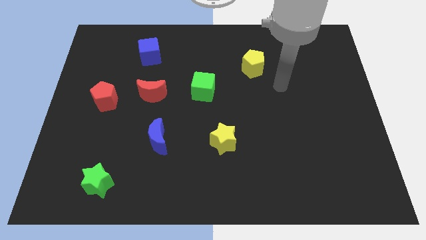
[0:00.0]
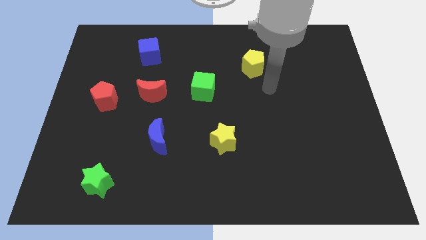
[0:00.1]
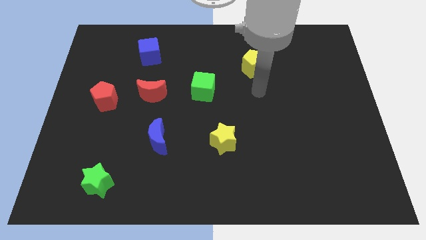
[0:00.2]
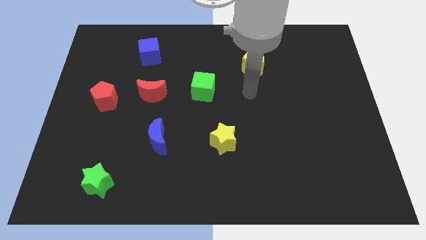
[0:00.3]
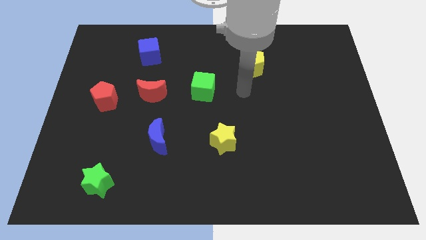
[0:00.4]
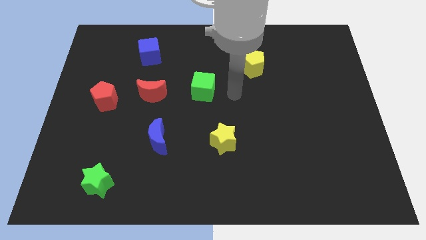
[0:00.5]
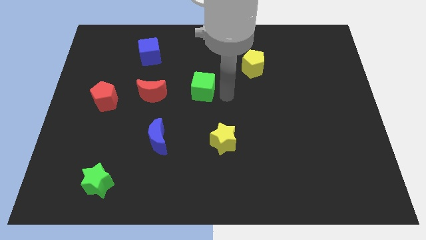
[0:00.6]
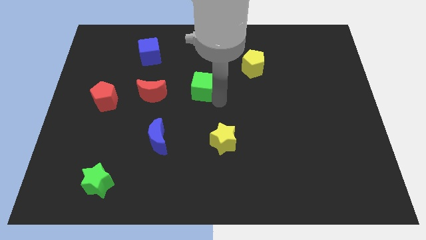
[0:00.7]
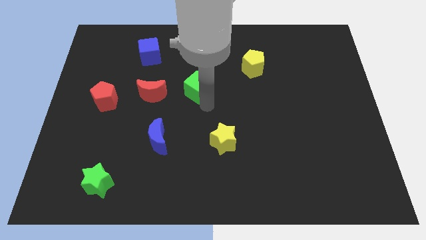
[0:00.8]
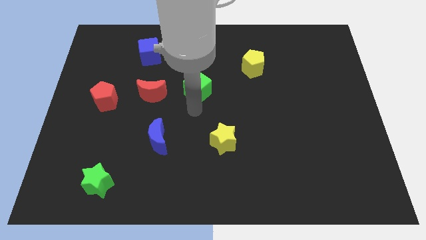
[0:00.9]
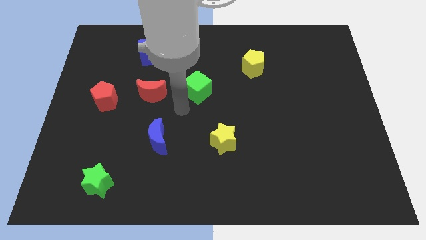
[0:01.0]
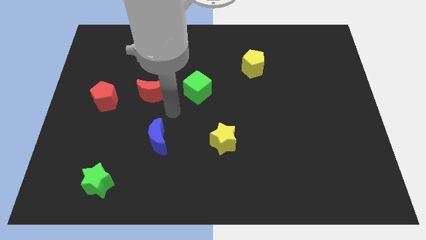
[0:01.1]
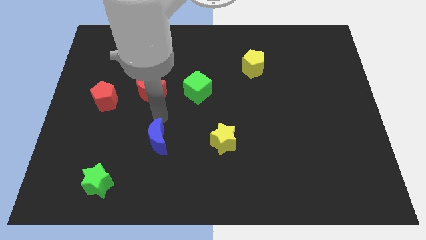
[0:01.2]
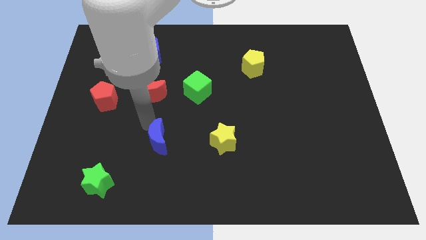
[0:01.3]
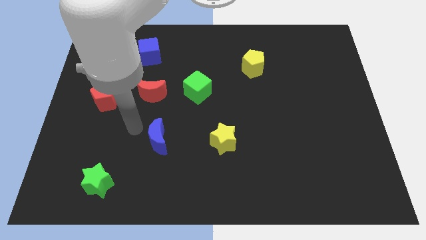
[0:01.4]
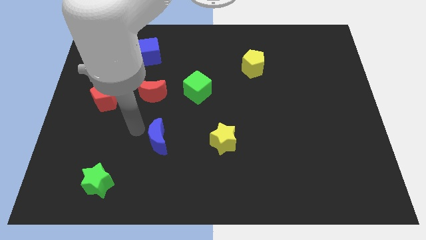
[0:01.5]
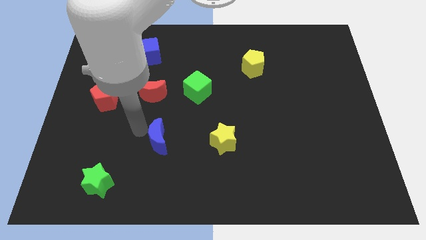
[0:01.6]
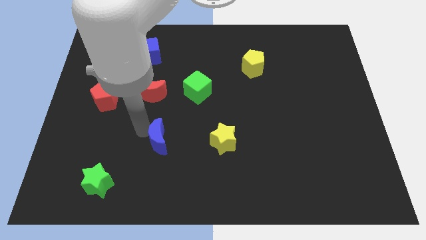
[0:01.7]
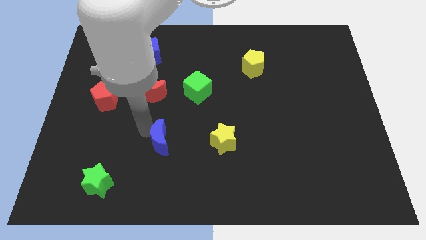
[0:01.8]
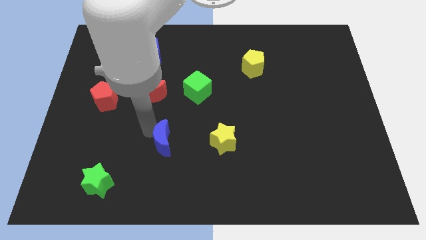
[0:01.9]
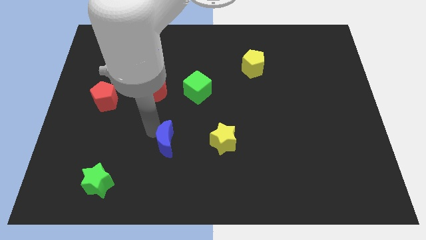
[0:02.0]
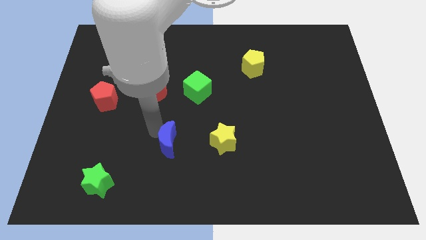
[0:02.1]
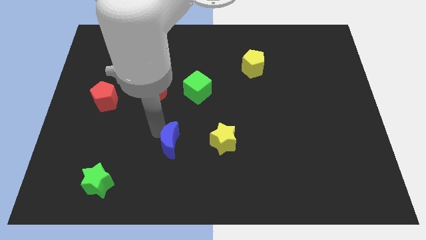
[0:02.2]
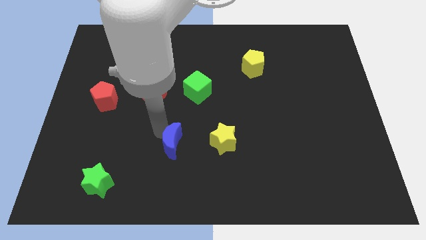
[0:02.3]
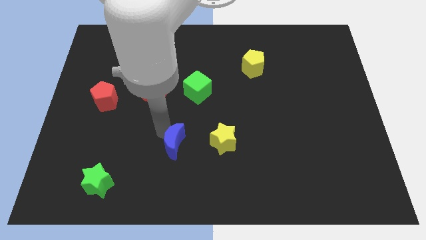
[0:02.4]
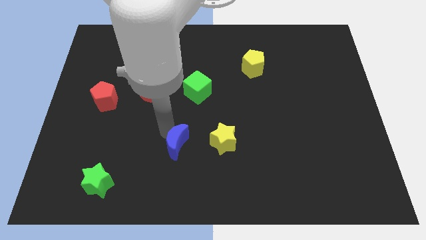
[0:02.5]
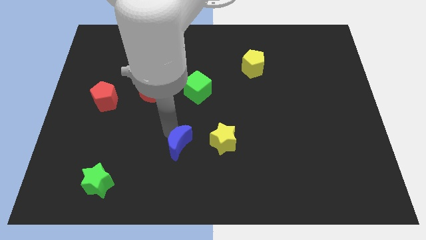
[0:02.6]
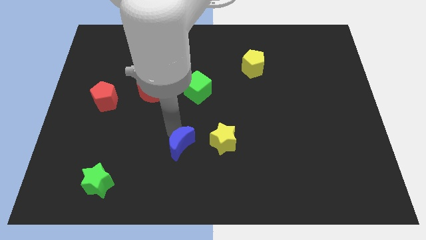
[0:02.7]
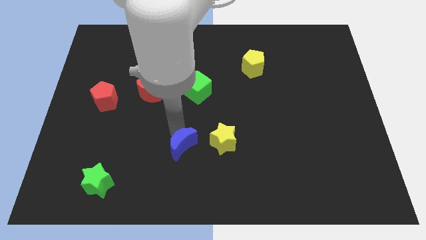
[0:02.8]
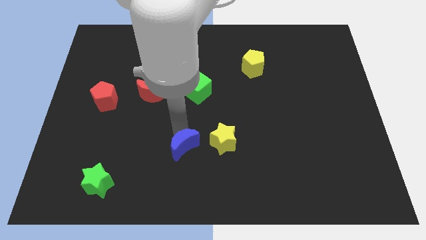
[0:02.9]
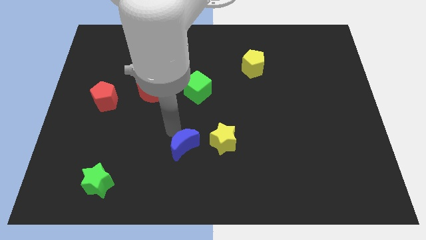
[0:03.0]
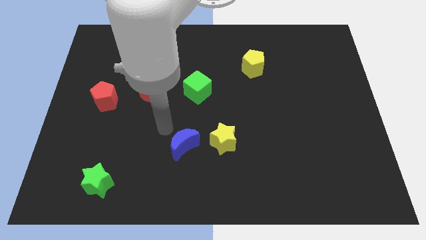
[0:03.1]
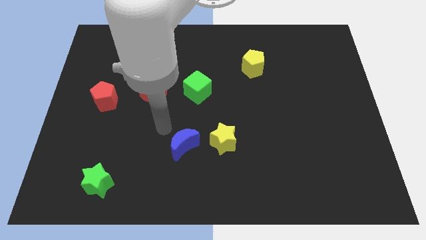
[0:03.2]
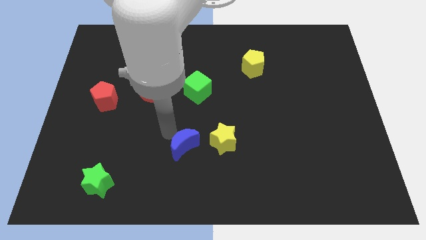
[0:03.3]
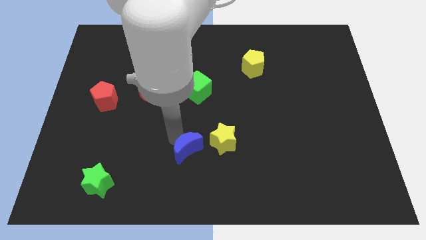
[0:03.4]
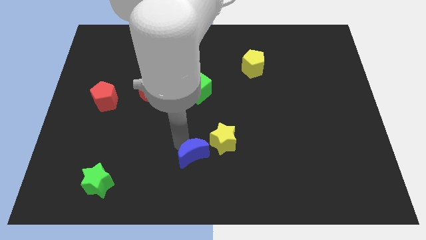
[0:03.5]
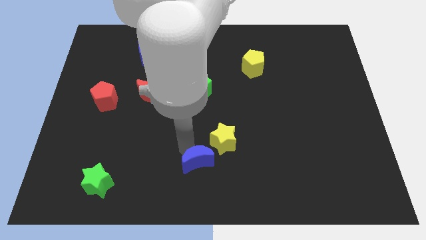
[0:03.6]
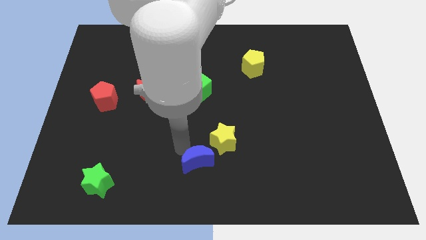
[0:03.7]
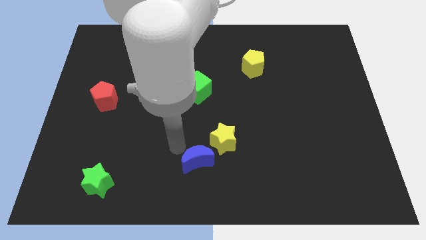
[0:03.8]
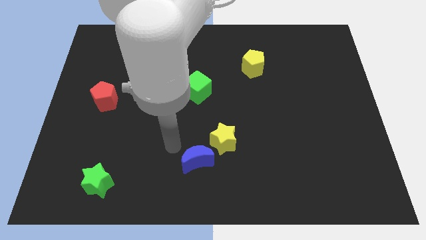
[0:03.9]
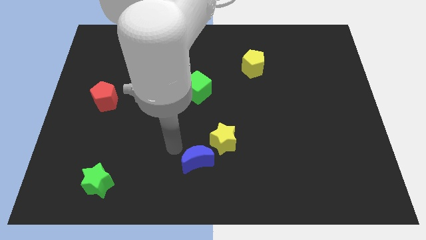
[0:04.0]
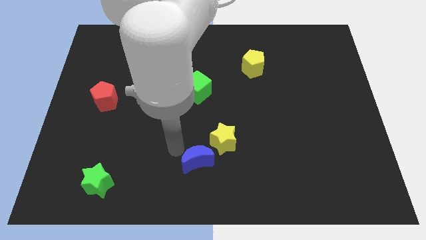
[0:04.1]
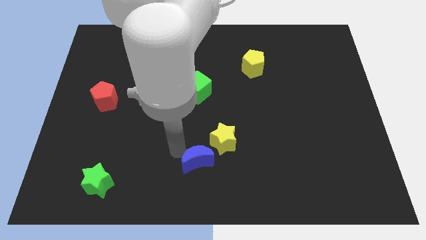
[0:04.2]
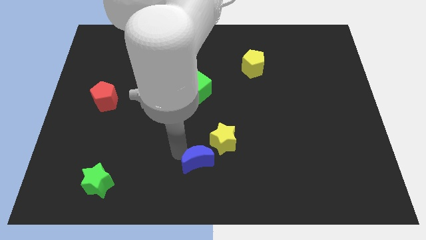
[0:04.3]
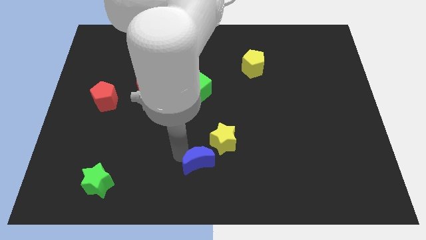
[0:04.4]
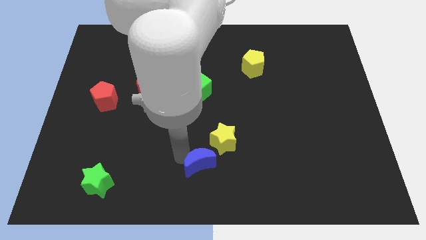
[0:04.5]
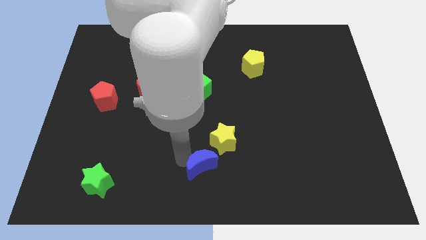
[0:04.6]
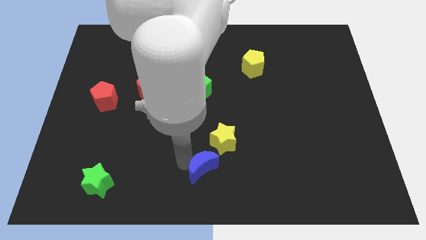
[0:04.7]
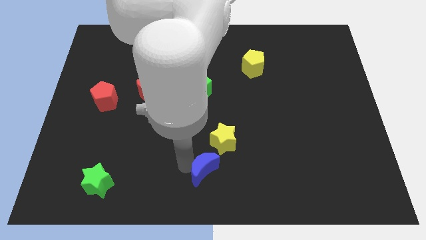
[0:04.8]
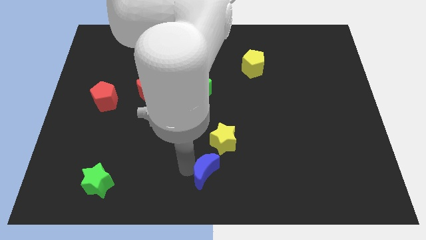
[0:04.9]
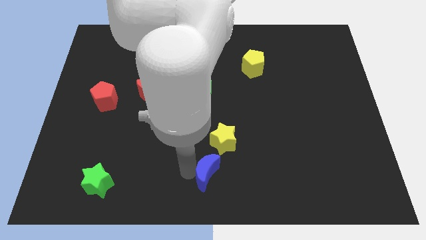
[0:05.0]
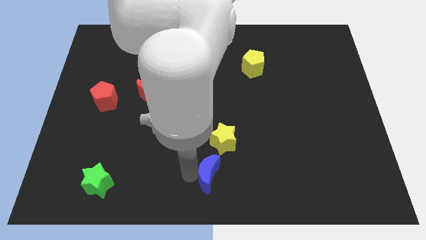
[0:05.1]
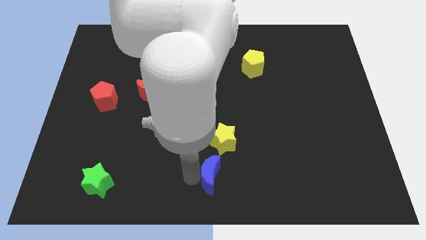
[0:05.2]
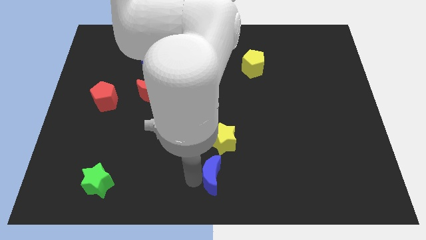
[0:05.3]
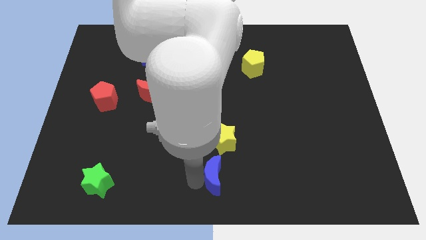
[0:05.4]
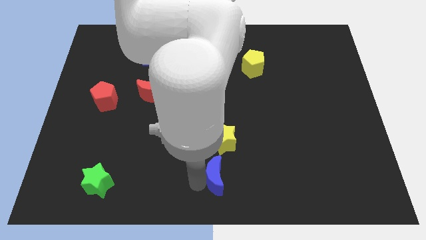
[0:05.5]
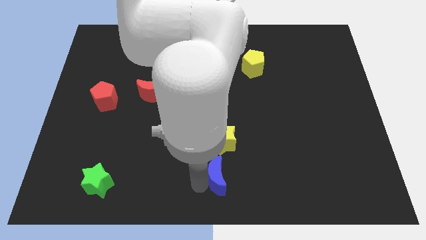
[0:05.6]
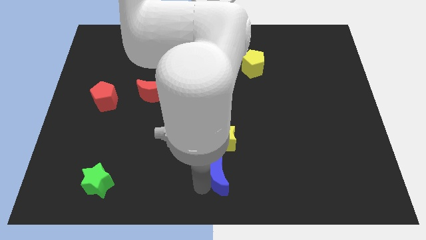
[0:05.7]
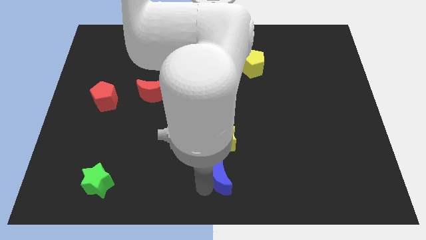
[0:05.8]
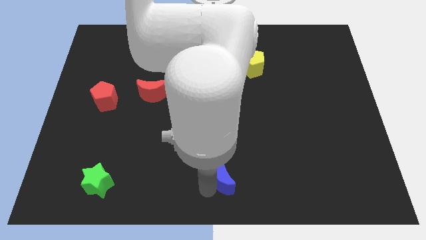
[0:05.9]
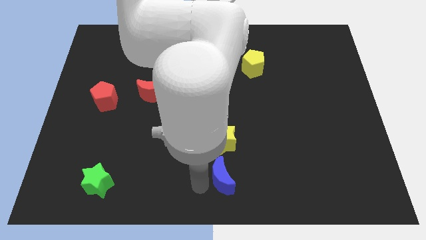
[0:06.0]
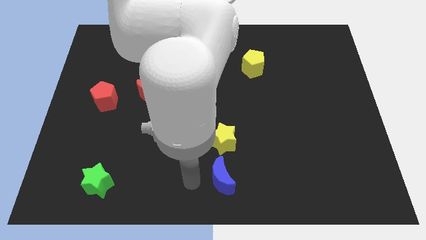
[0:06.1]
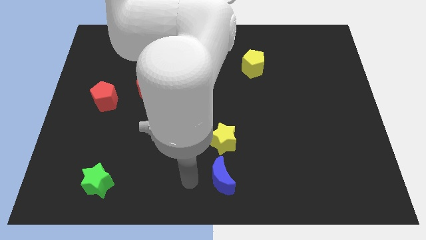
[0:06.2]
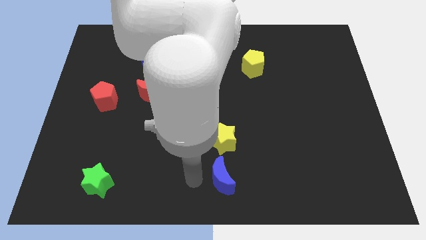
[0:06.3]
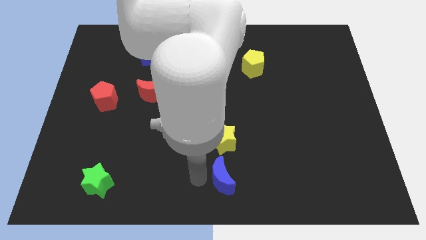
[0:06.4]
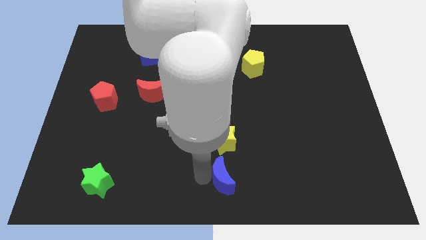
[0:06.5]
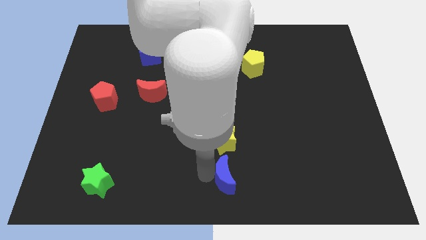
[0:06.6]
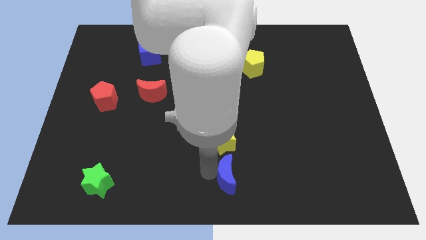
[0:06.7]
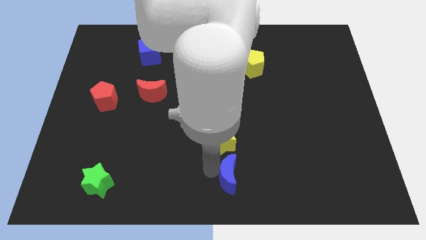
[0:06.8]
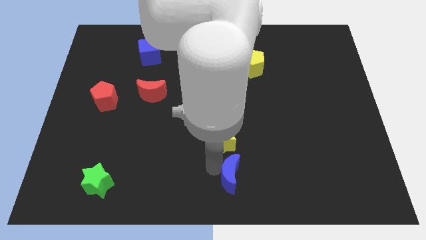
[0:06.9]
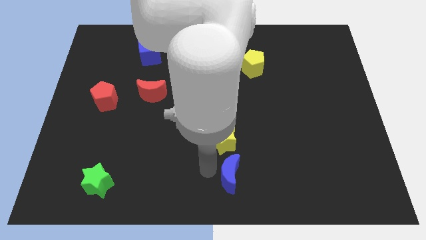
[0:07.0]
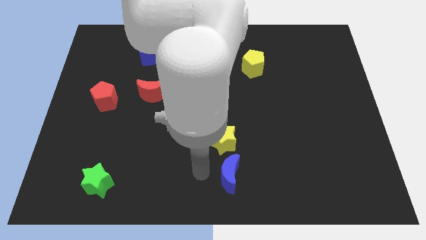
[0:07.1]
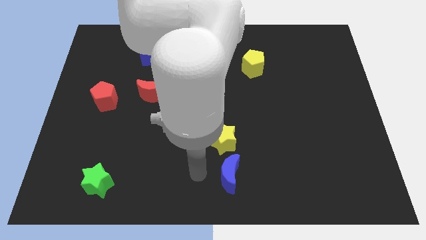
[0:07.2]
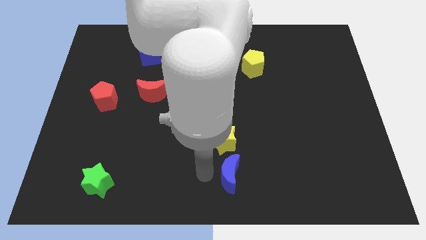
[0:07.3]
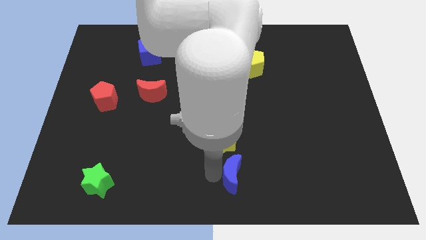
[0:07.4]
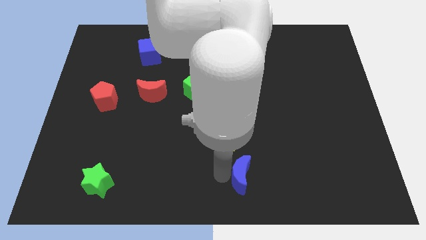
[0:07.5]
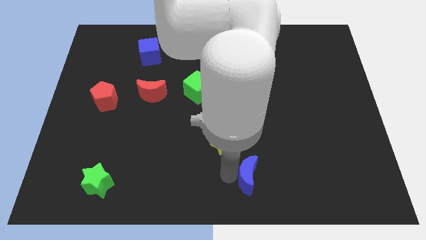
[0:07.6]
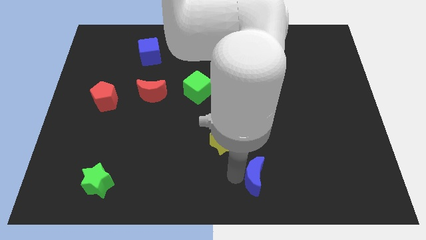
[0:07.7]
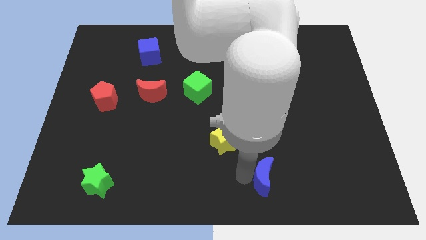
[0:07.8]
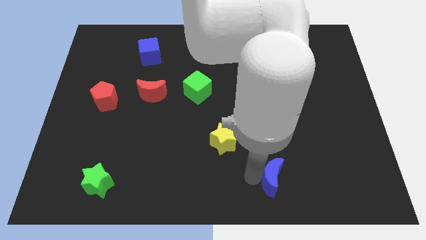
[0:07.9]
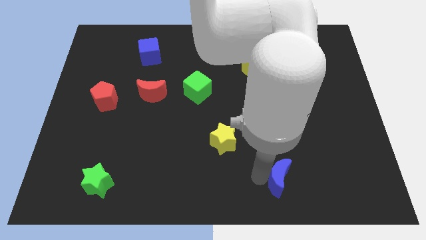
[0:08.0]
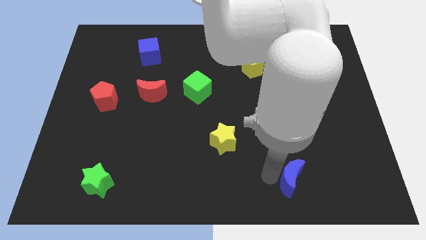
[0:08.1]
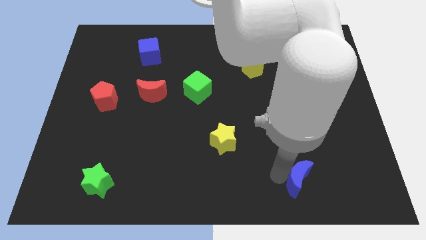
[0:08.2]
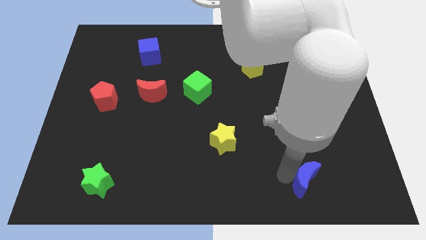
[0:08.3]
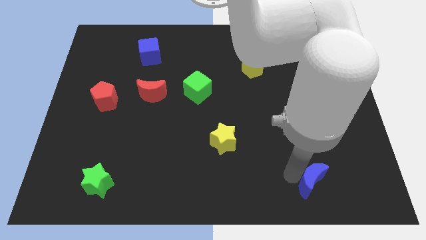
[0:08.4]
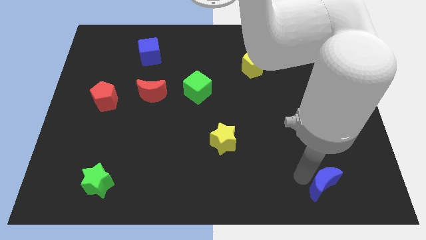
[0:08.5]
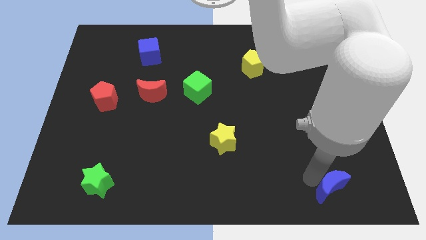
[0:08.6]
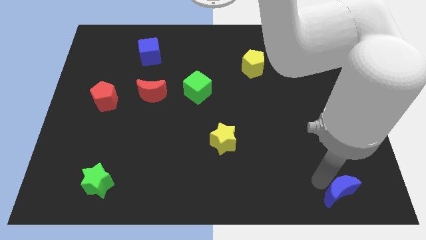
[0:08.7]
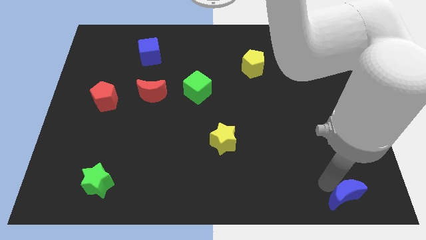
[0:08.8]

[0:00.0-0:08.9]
move the blue moon to the bottom right corner
